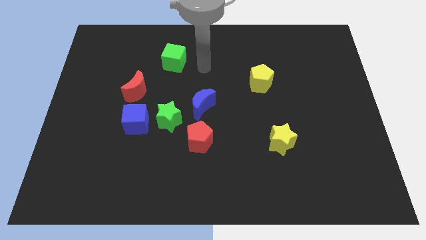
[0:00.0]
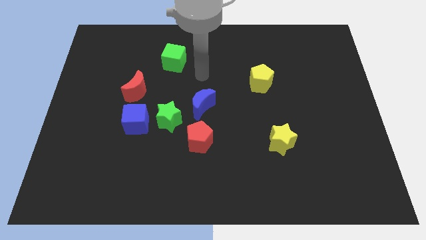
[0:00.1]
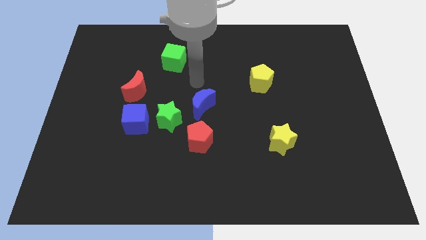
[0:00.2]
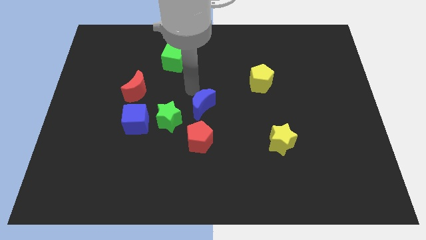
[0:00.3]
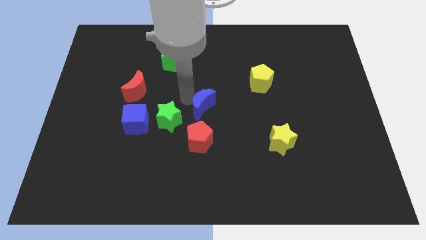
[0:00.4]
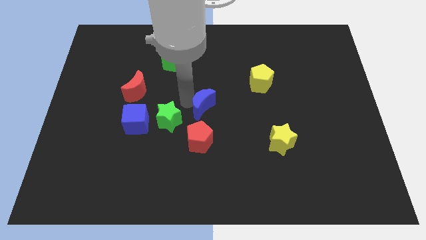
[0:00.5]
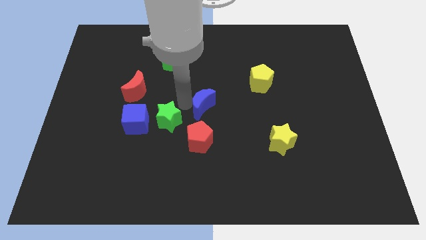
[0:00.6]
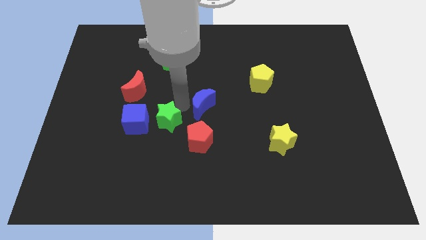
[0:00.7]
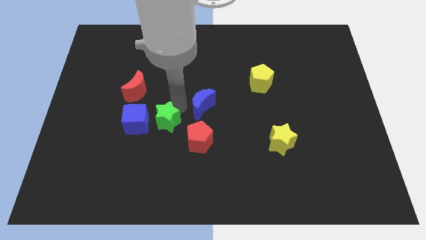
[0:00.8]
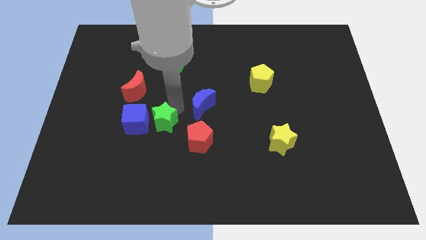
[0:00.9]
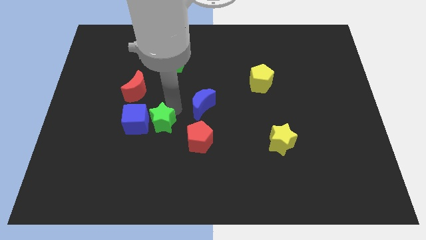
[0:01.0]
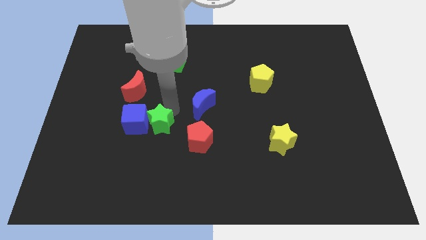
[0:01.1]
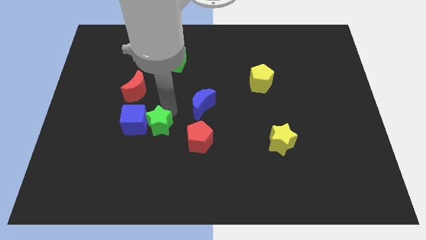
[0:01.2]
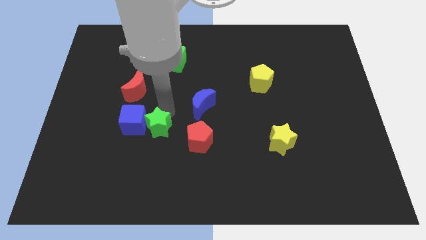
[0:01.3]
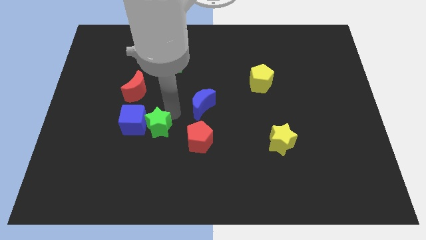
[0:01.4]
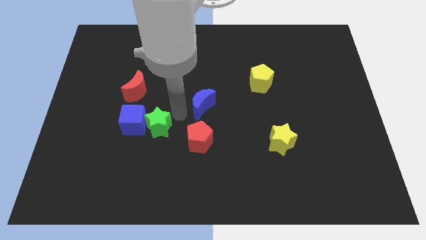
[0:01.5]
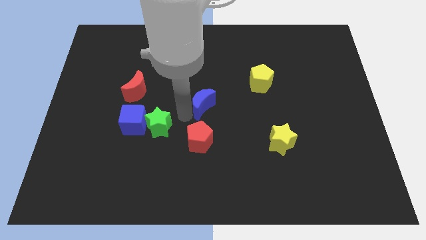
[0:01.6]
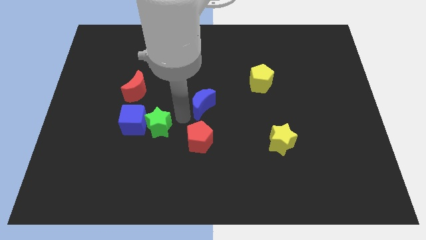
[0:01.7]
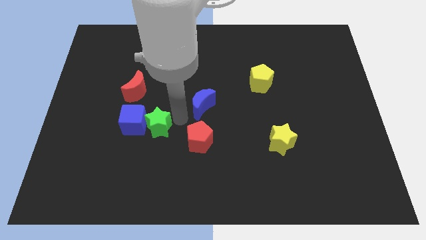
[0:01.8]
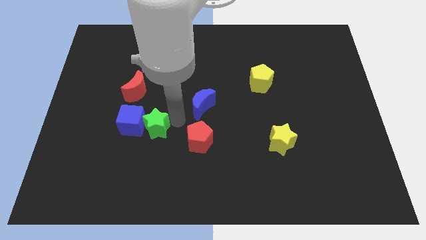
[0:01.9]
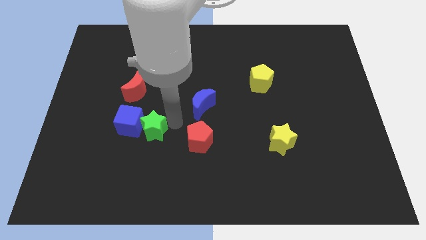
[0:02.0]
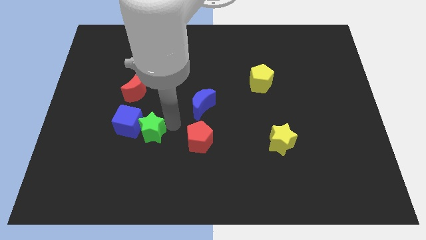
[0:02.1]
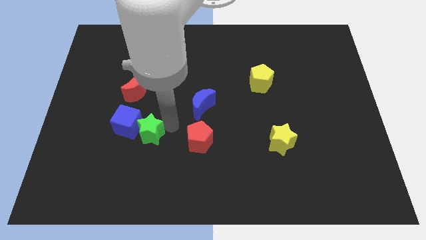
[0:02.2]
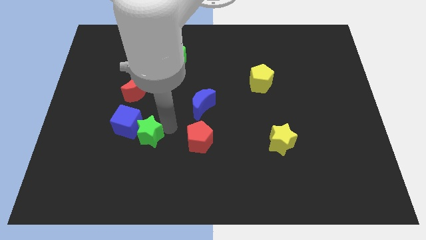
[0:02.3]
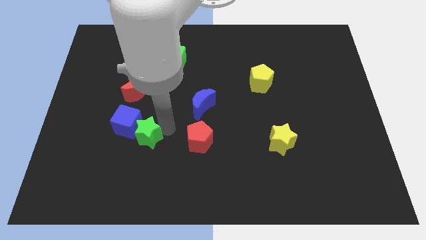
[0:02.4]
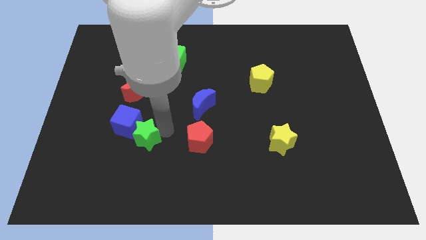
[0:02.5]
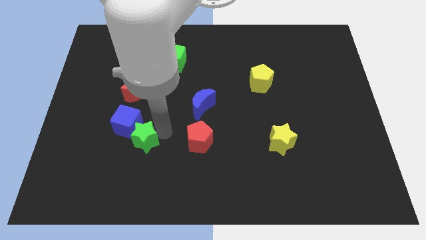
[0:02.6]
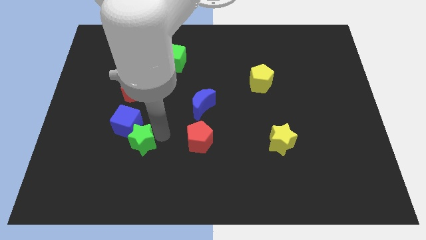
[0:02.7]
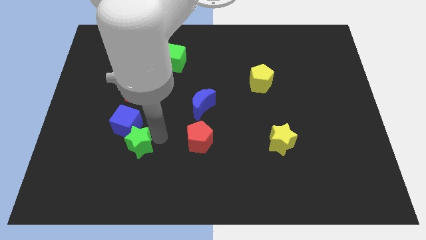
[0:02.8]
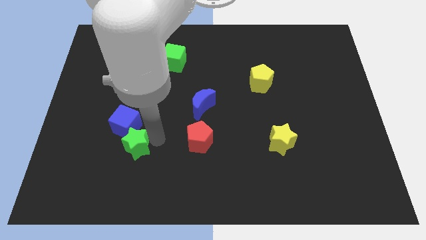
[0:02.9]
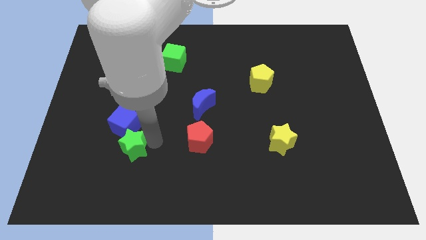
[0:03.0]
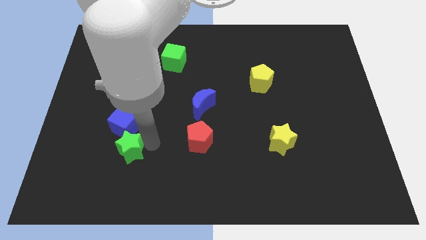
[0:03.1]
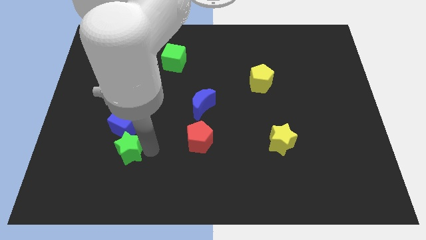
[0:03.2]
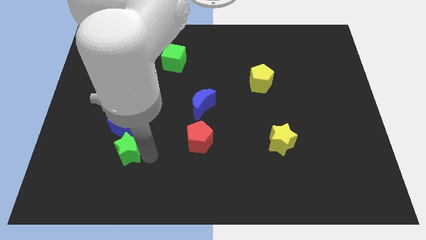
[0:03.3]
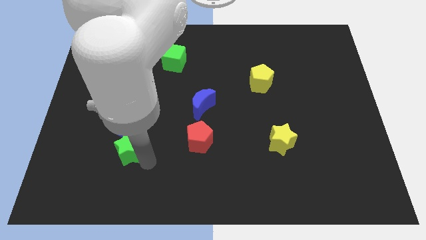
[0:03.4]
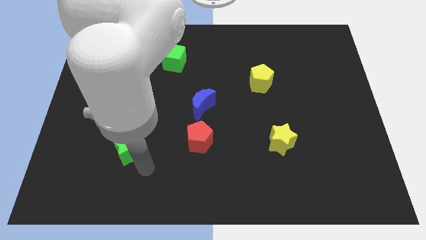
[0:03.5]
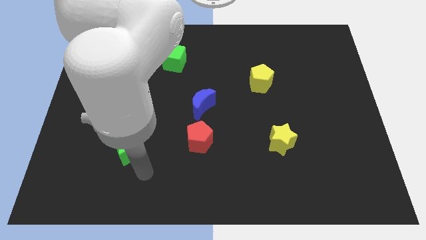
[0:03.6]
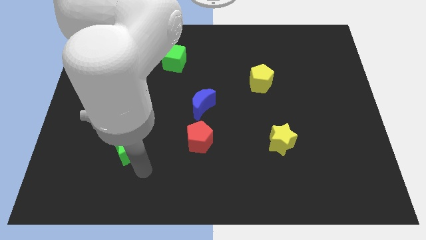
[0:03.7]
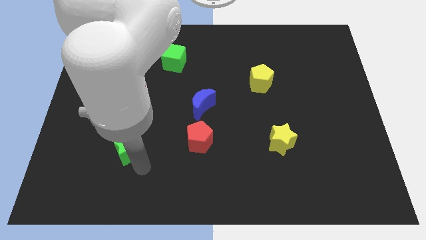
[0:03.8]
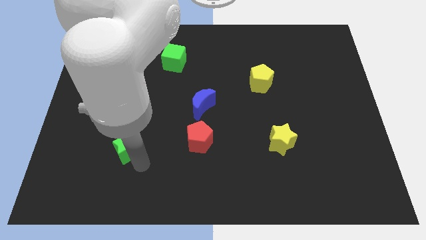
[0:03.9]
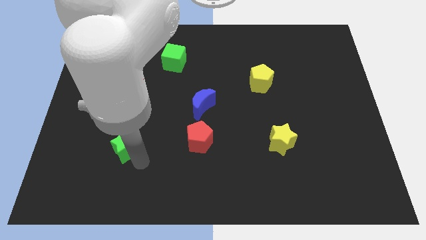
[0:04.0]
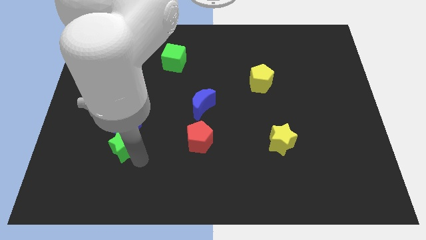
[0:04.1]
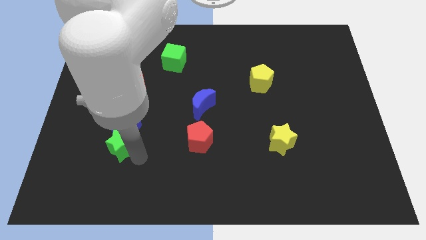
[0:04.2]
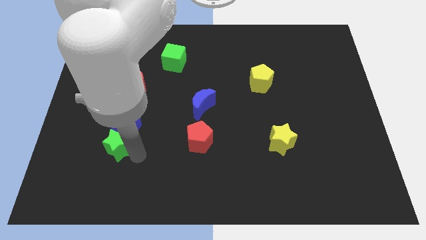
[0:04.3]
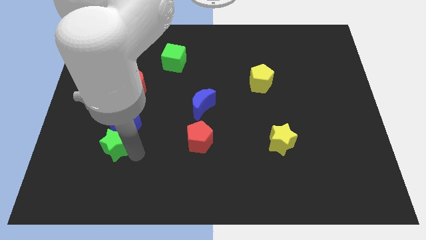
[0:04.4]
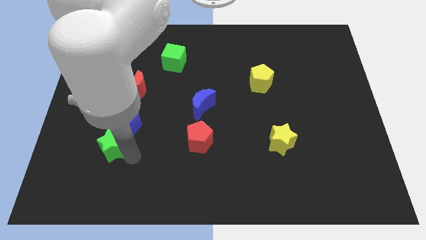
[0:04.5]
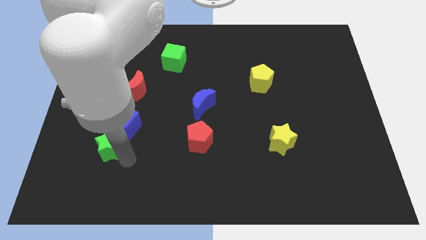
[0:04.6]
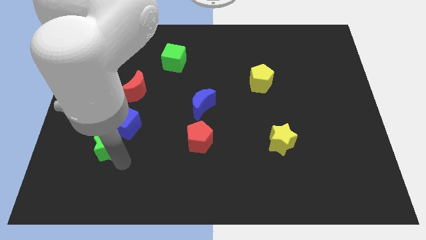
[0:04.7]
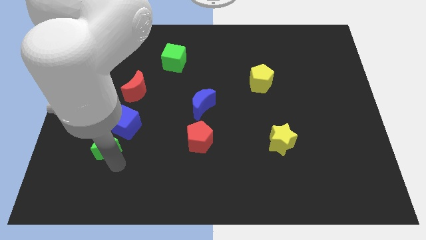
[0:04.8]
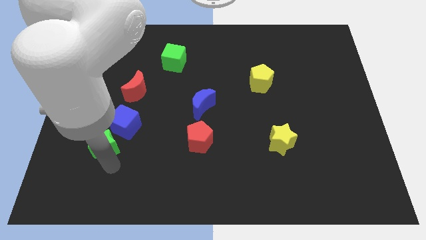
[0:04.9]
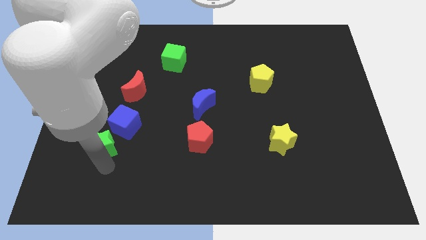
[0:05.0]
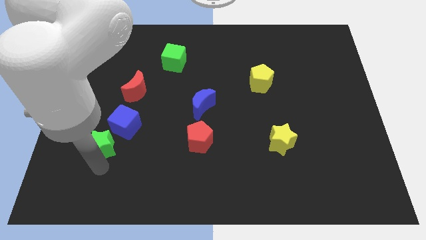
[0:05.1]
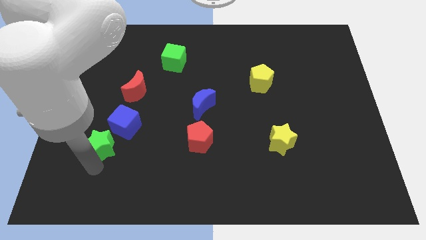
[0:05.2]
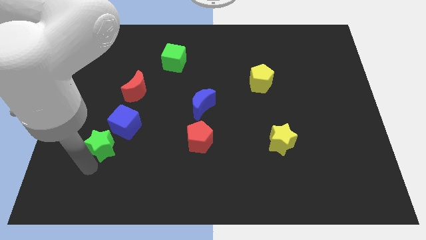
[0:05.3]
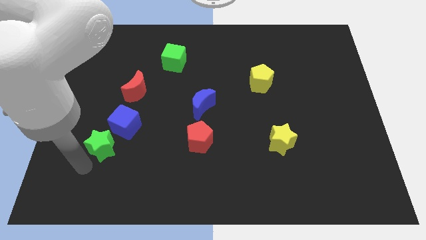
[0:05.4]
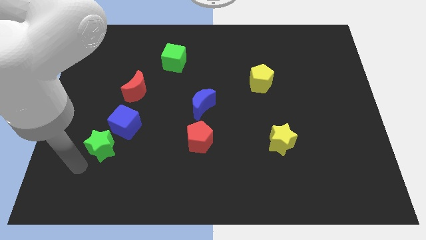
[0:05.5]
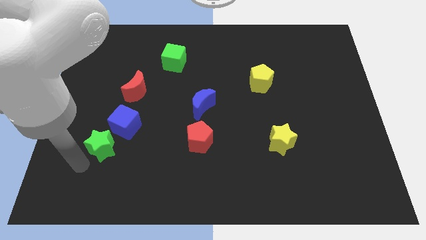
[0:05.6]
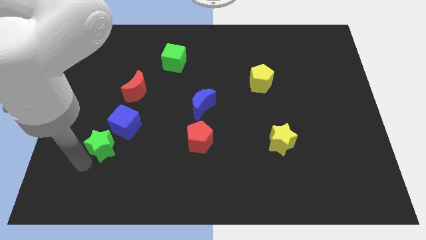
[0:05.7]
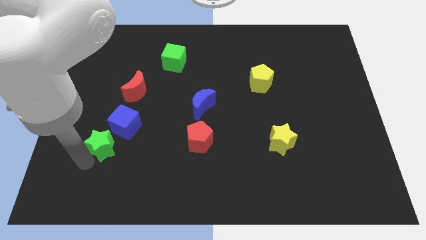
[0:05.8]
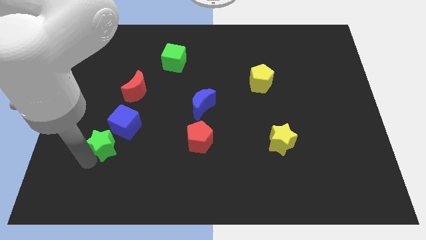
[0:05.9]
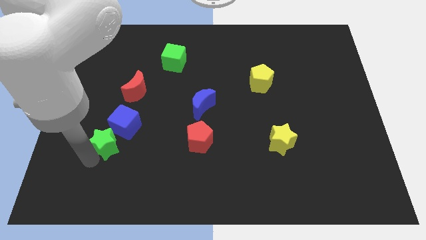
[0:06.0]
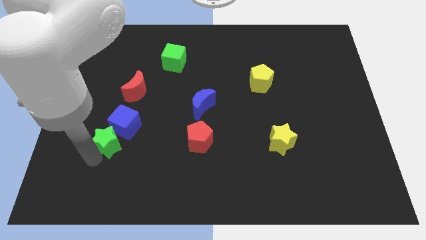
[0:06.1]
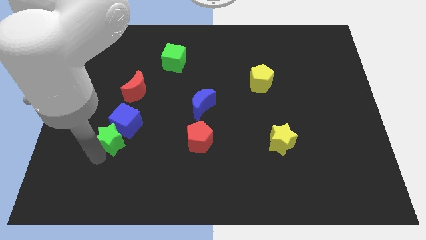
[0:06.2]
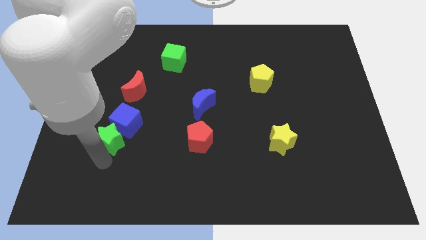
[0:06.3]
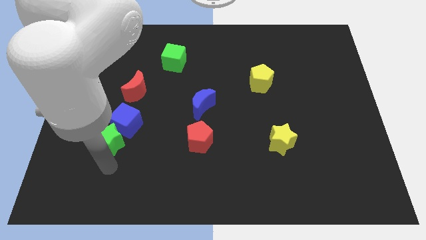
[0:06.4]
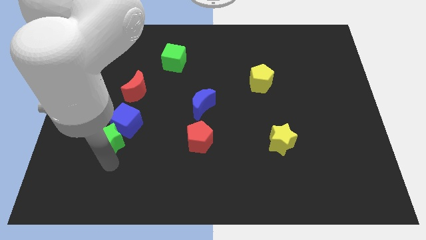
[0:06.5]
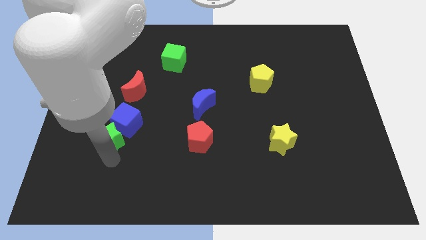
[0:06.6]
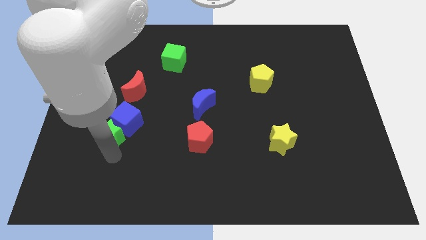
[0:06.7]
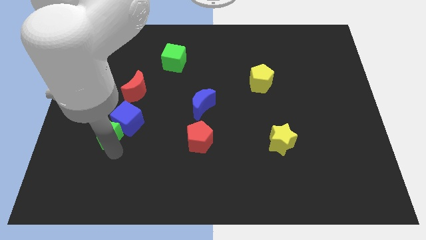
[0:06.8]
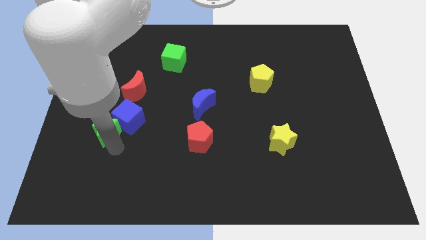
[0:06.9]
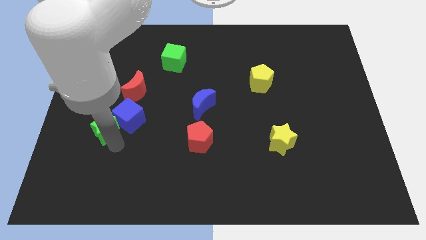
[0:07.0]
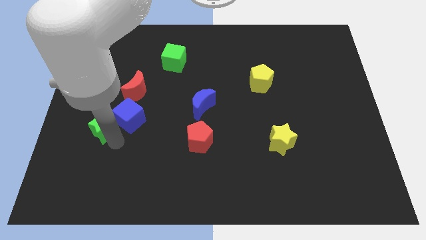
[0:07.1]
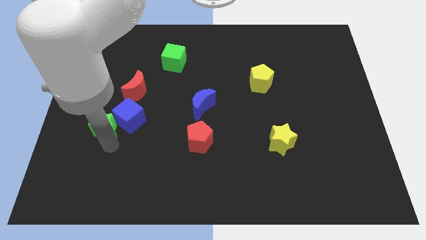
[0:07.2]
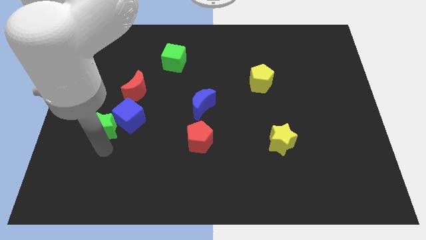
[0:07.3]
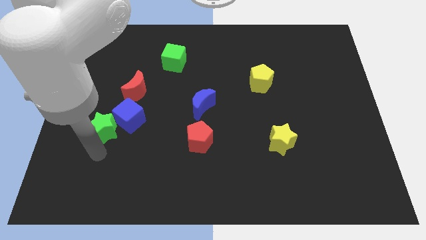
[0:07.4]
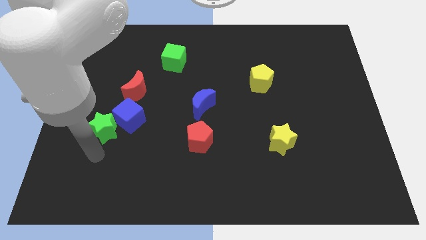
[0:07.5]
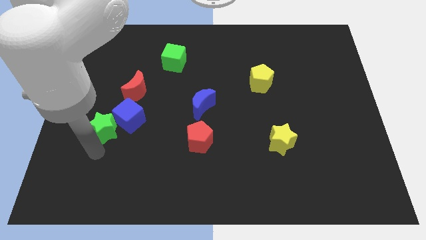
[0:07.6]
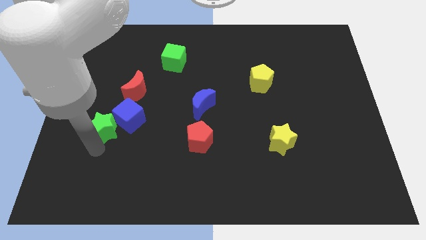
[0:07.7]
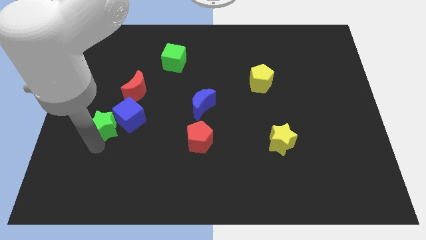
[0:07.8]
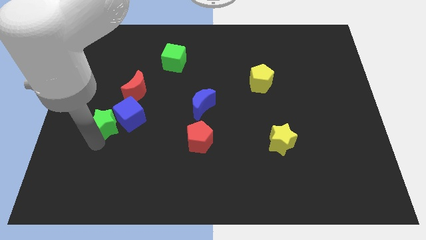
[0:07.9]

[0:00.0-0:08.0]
put the green star to the bottom left of the red moon
